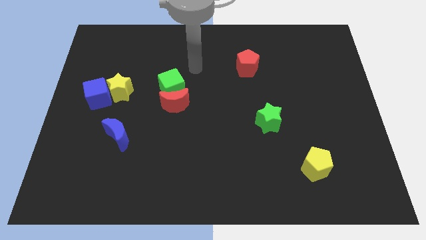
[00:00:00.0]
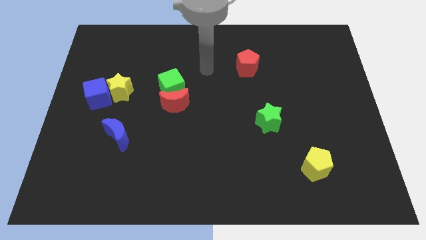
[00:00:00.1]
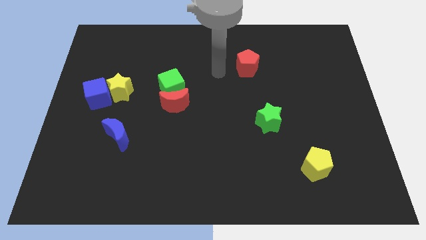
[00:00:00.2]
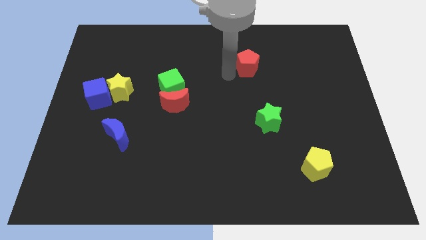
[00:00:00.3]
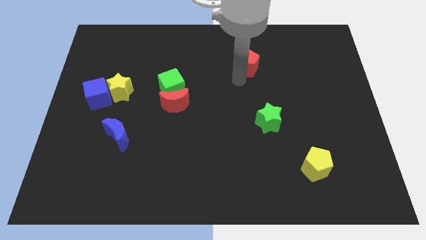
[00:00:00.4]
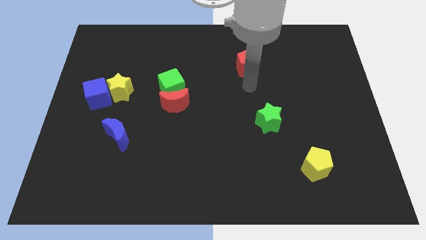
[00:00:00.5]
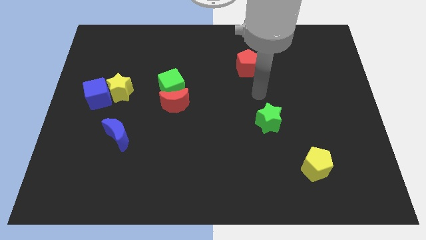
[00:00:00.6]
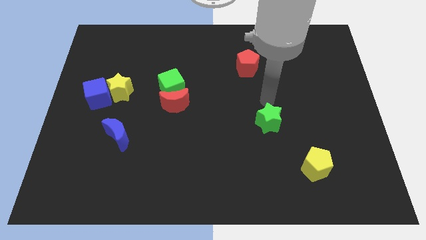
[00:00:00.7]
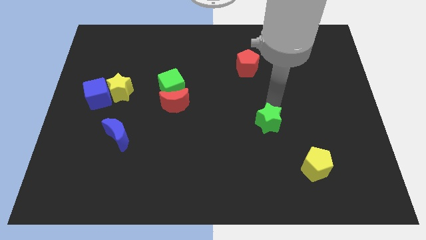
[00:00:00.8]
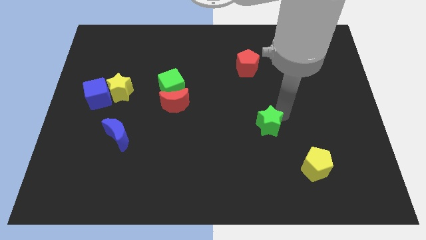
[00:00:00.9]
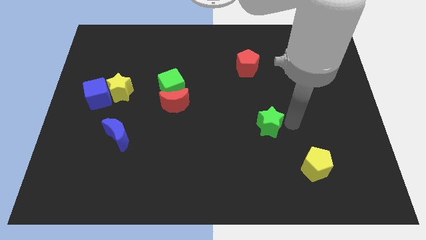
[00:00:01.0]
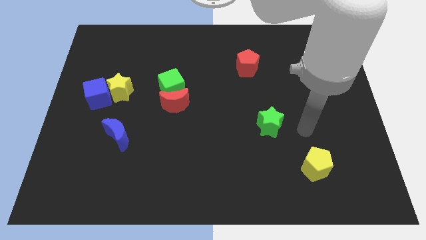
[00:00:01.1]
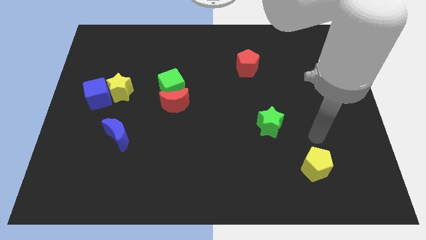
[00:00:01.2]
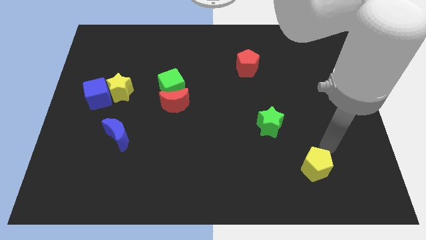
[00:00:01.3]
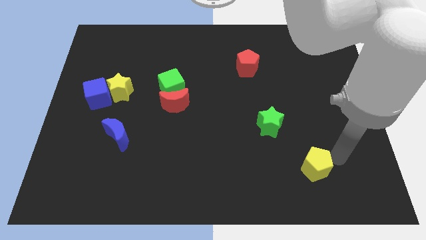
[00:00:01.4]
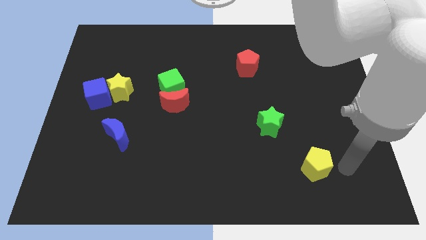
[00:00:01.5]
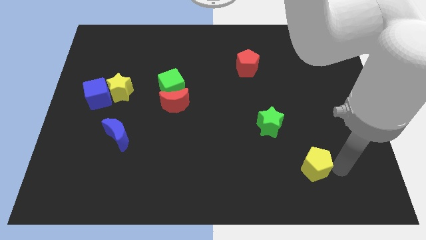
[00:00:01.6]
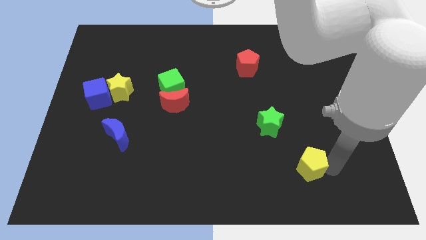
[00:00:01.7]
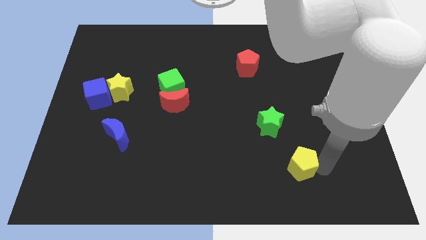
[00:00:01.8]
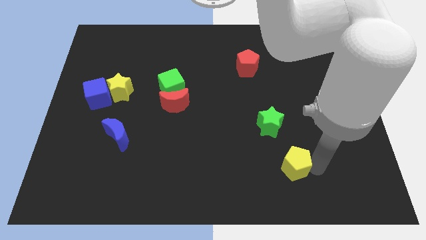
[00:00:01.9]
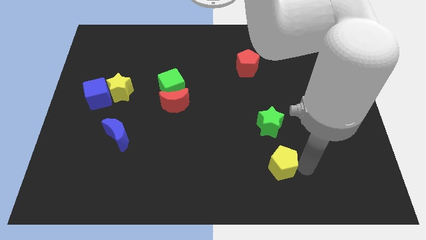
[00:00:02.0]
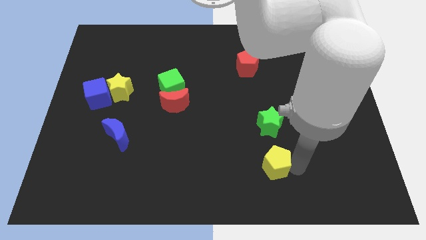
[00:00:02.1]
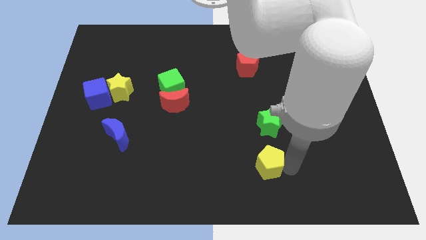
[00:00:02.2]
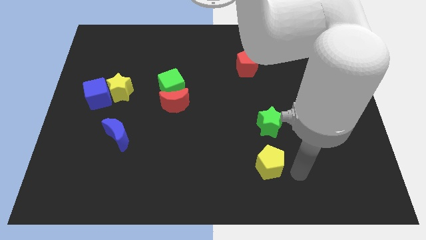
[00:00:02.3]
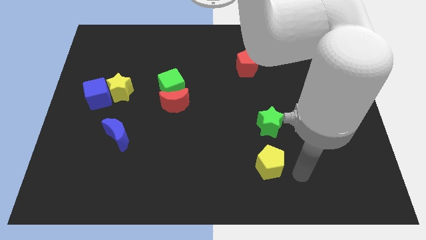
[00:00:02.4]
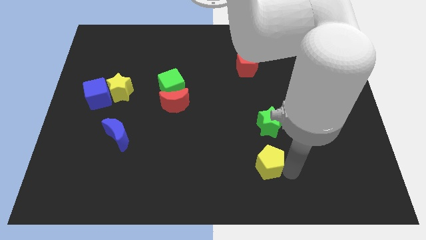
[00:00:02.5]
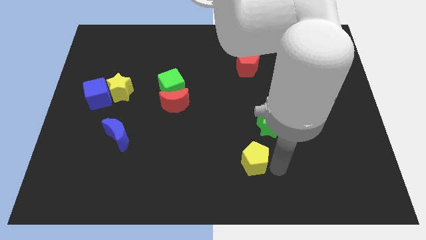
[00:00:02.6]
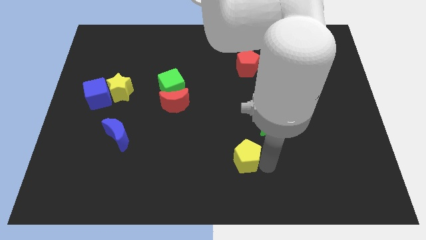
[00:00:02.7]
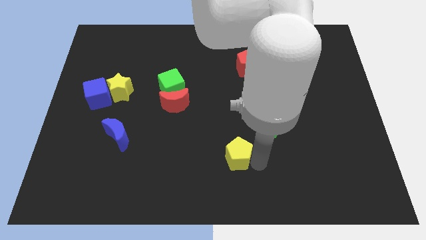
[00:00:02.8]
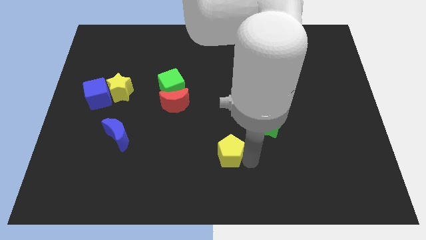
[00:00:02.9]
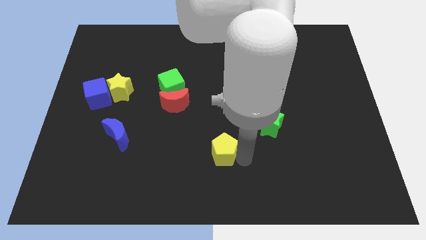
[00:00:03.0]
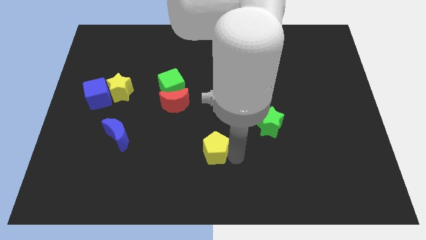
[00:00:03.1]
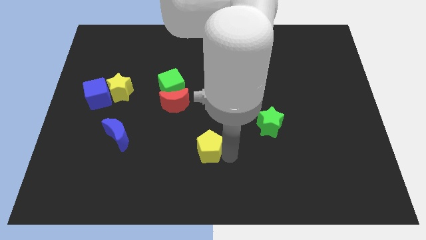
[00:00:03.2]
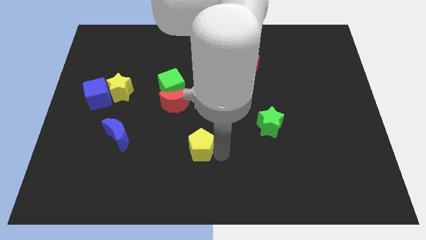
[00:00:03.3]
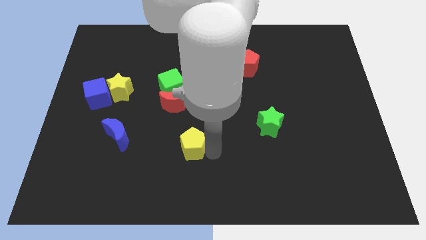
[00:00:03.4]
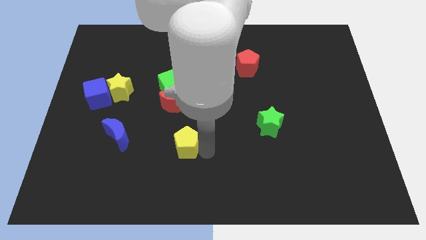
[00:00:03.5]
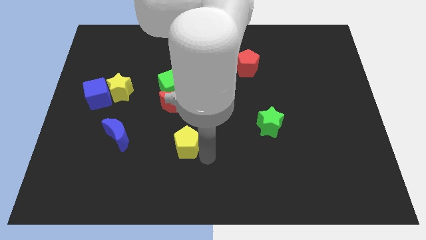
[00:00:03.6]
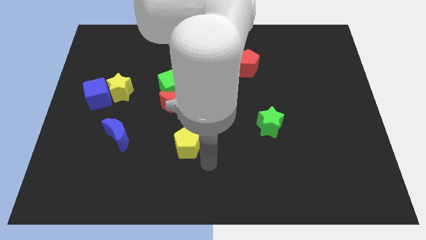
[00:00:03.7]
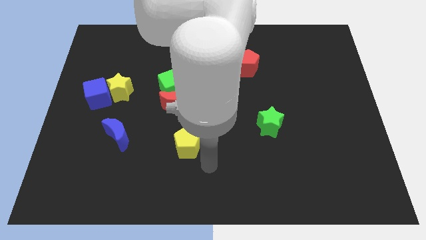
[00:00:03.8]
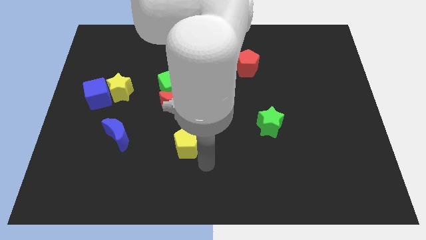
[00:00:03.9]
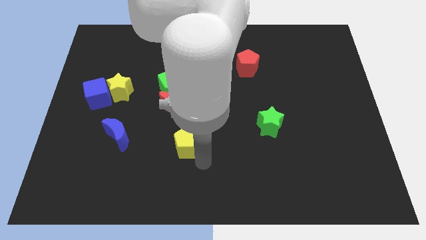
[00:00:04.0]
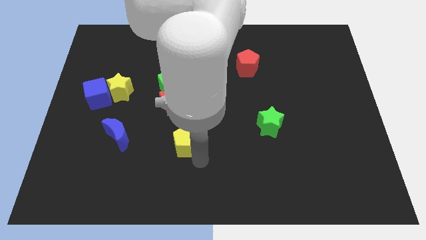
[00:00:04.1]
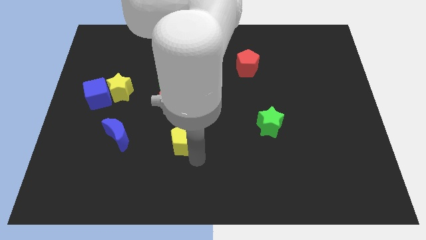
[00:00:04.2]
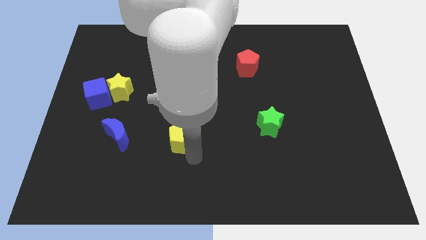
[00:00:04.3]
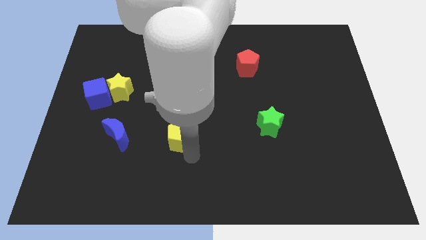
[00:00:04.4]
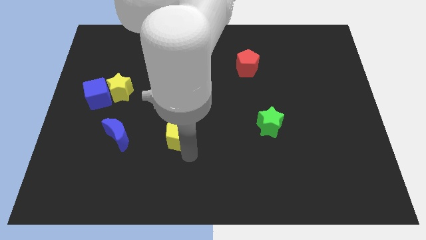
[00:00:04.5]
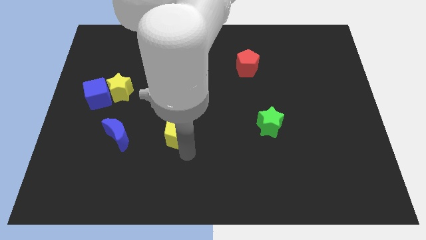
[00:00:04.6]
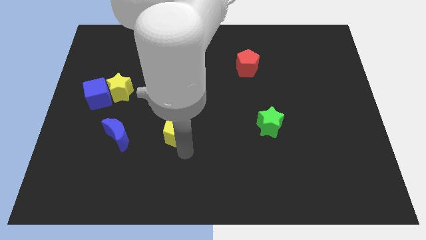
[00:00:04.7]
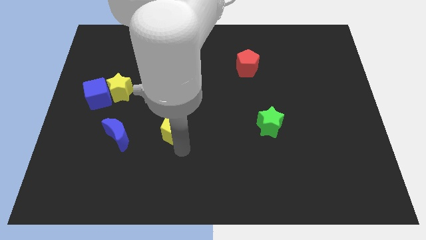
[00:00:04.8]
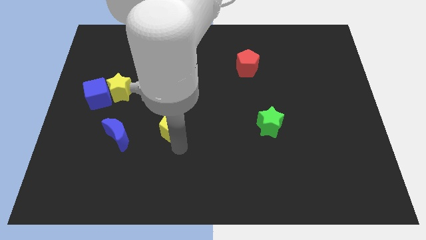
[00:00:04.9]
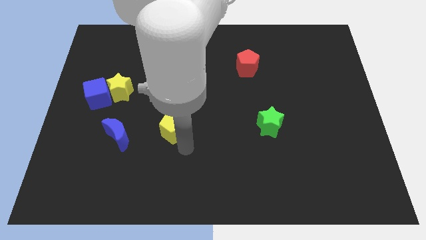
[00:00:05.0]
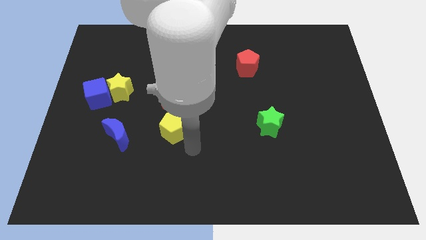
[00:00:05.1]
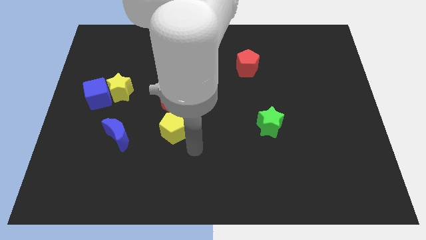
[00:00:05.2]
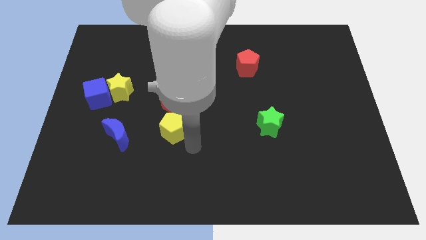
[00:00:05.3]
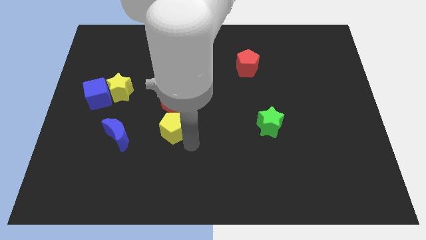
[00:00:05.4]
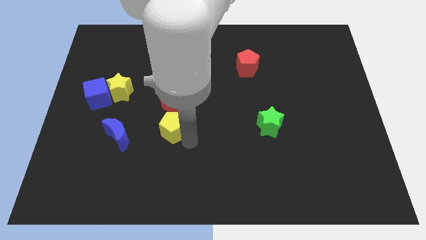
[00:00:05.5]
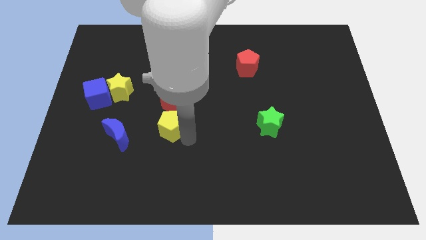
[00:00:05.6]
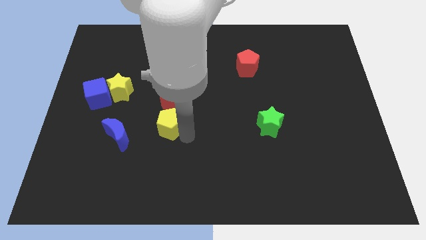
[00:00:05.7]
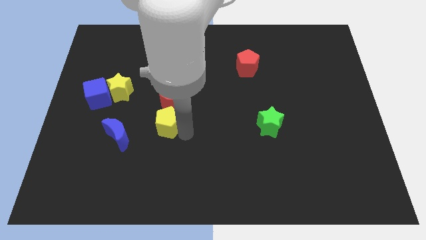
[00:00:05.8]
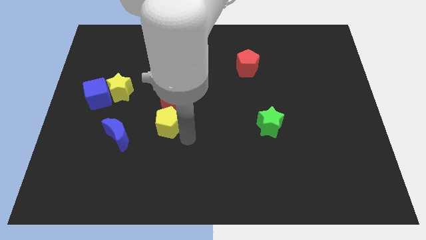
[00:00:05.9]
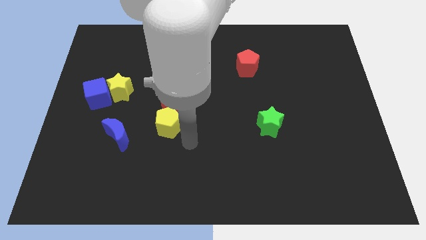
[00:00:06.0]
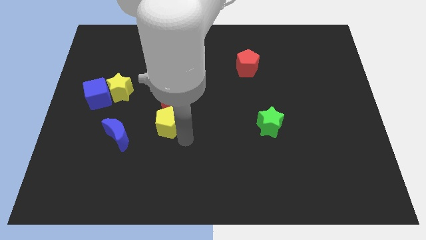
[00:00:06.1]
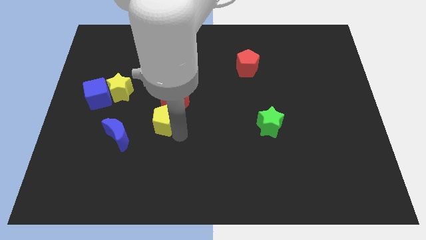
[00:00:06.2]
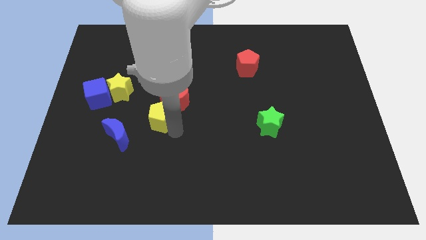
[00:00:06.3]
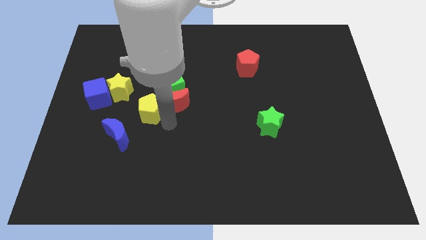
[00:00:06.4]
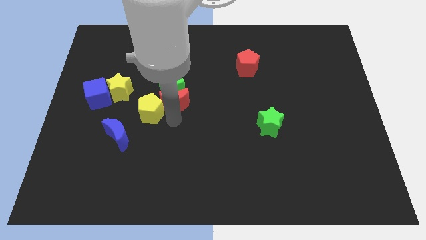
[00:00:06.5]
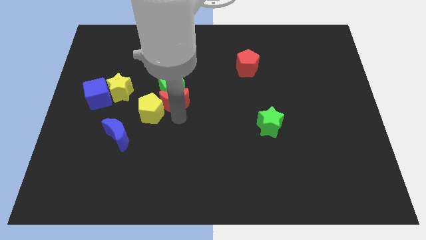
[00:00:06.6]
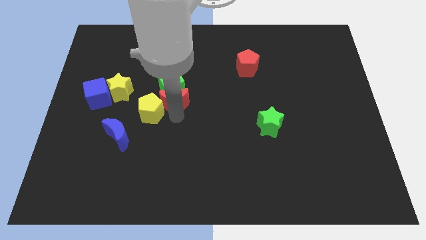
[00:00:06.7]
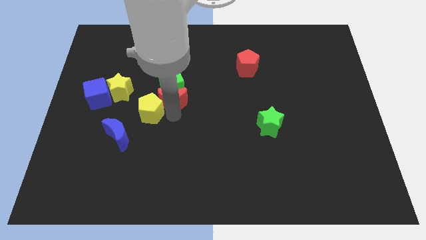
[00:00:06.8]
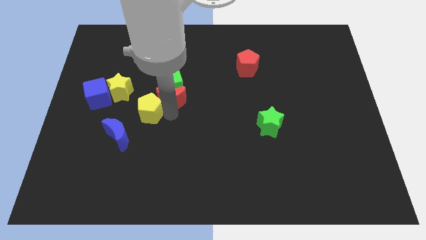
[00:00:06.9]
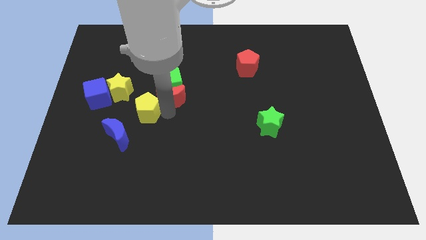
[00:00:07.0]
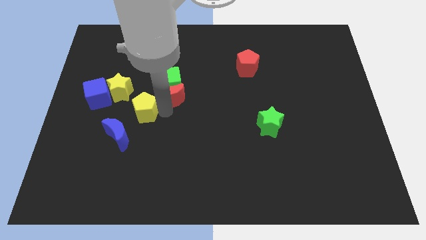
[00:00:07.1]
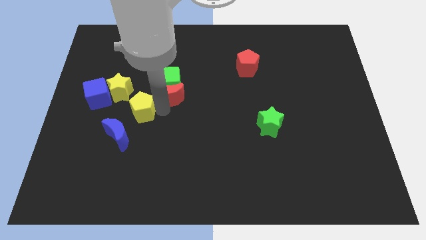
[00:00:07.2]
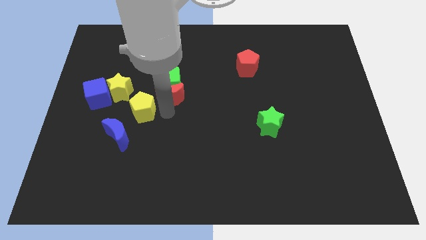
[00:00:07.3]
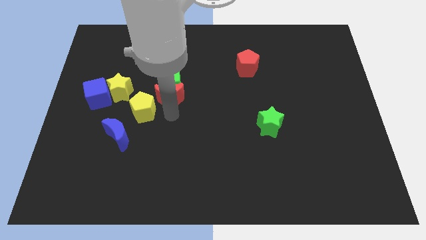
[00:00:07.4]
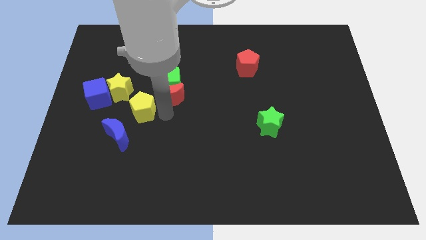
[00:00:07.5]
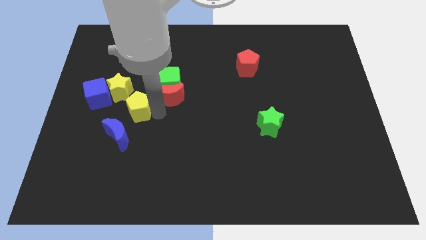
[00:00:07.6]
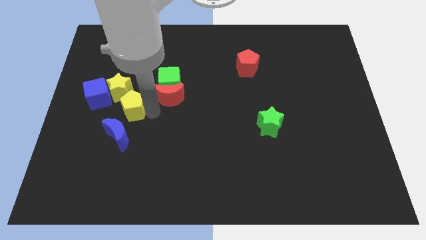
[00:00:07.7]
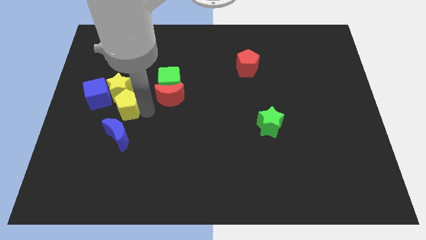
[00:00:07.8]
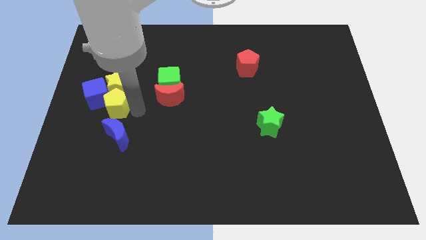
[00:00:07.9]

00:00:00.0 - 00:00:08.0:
slide the yellow pentagon to the blue cube
